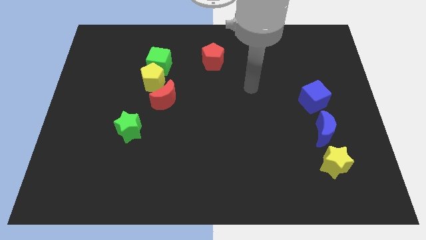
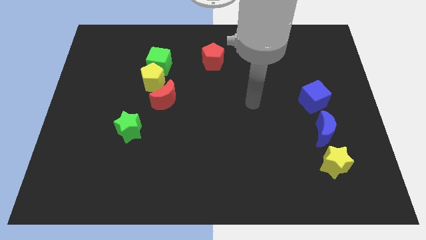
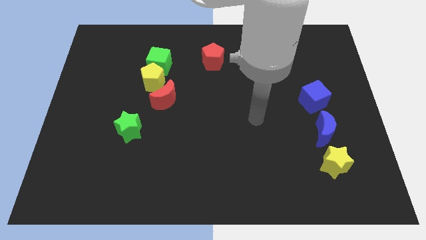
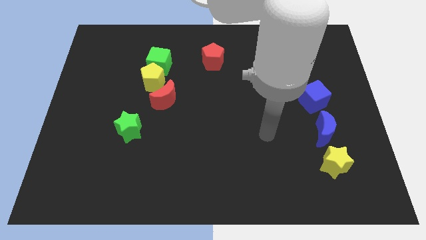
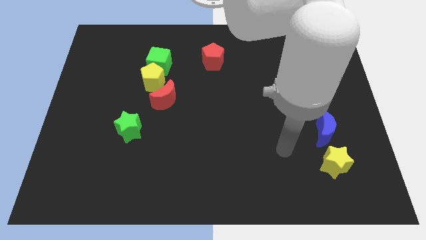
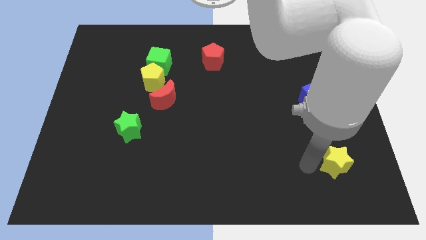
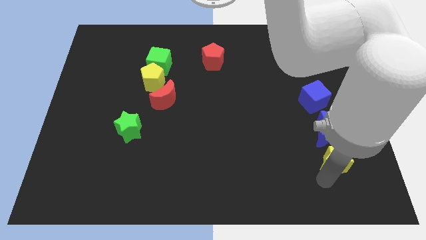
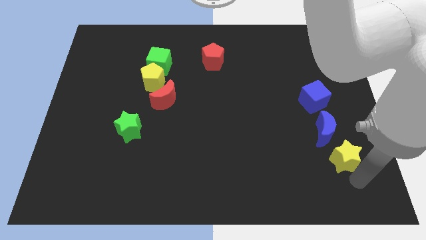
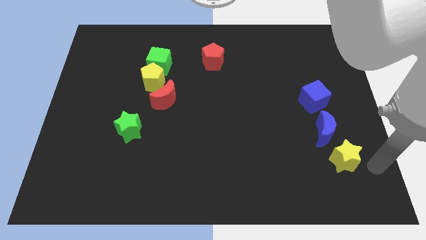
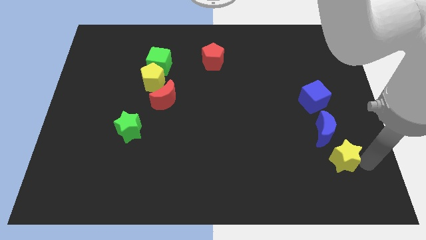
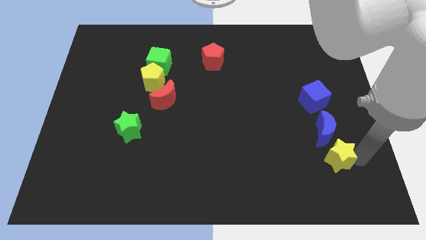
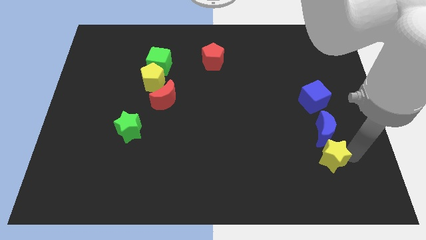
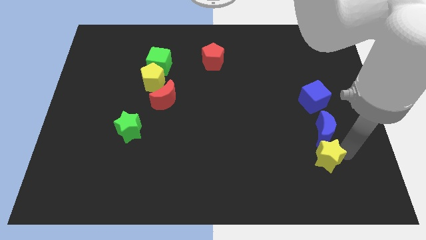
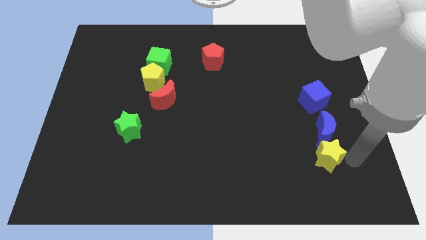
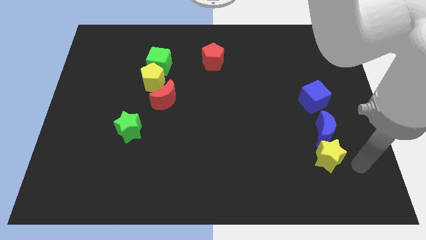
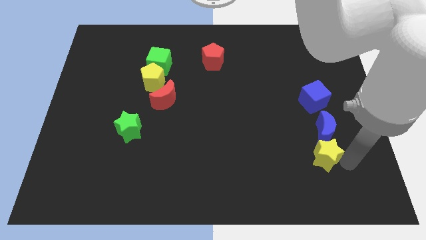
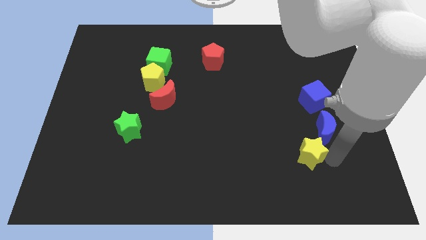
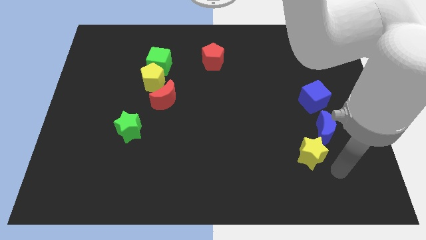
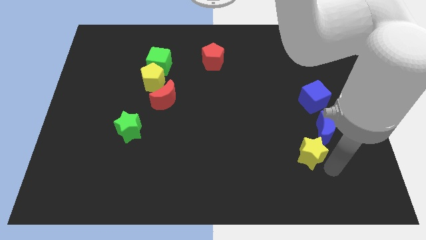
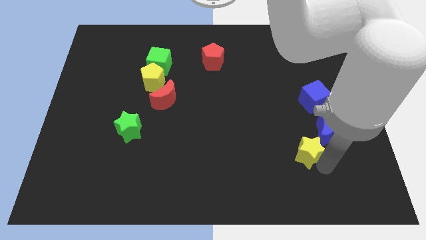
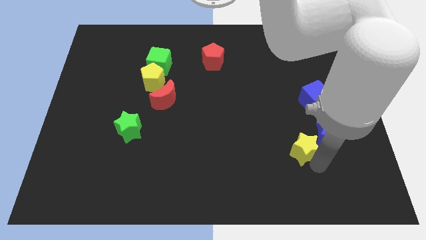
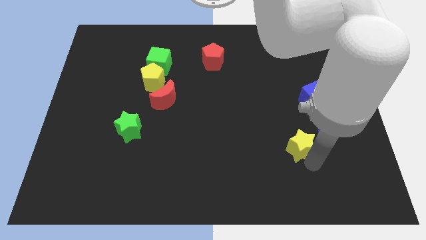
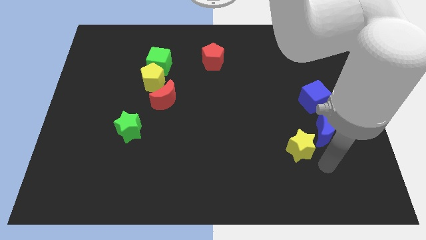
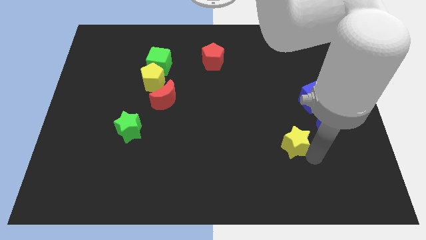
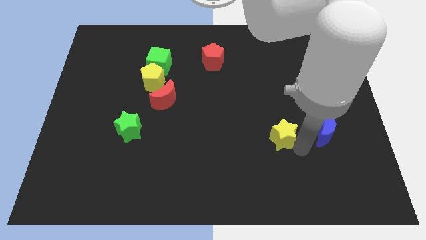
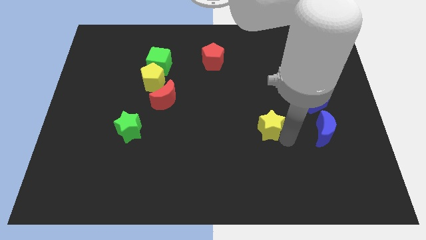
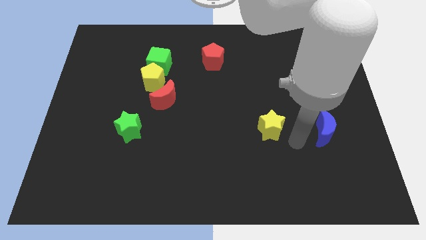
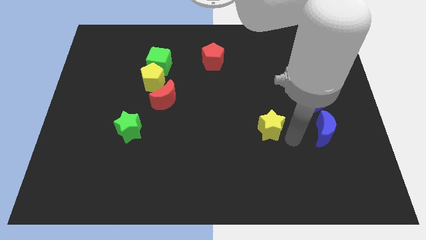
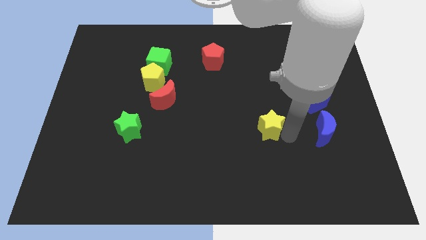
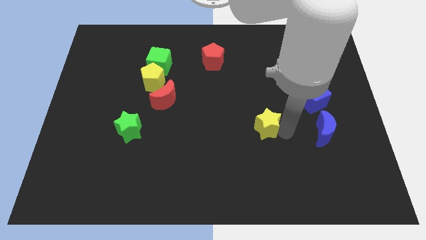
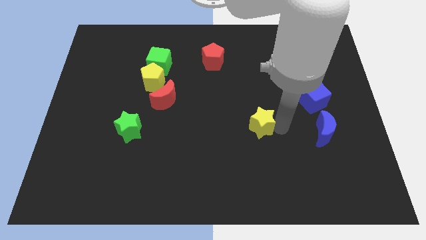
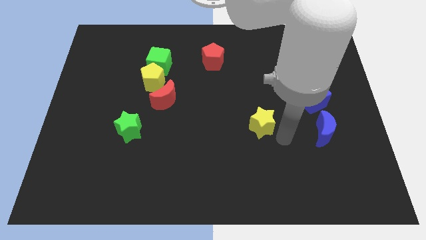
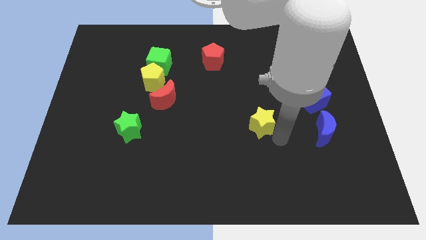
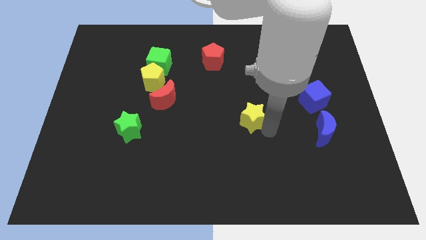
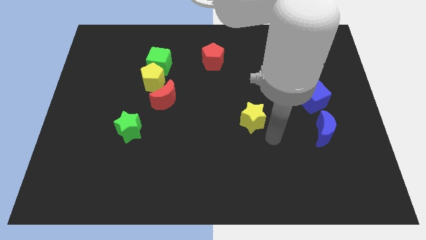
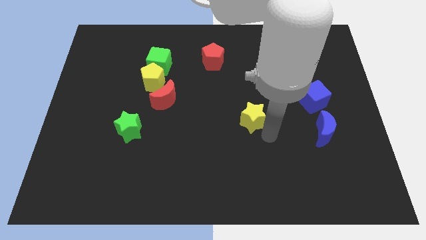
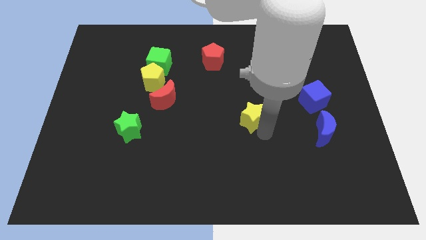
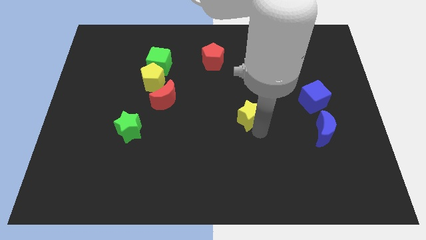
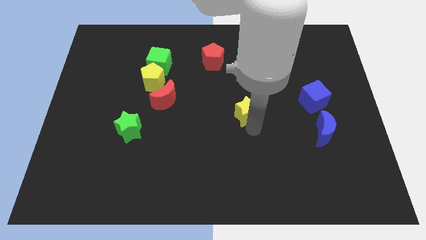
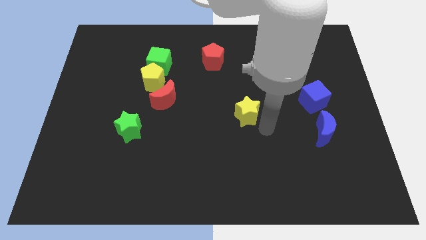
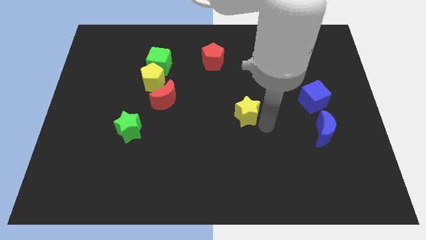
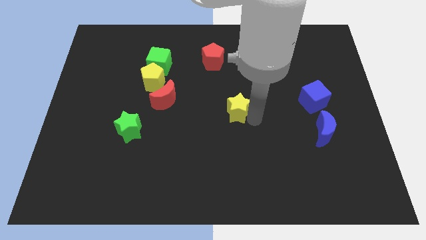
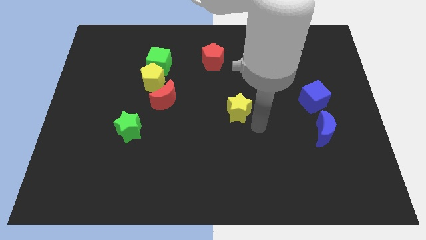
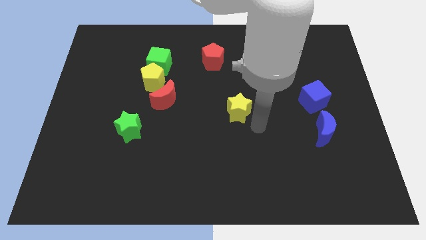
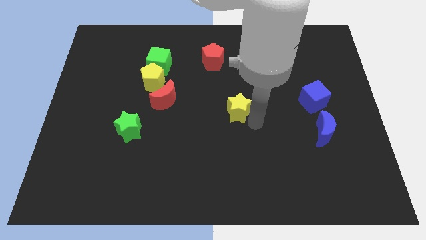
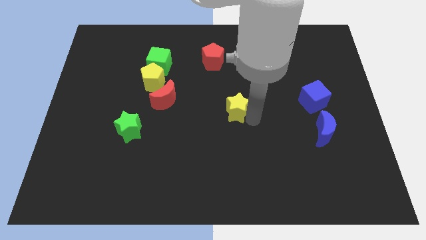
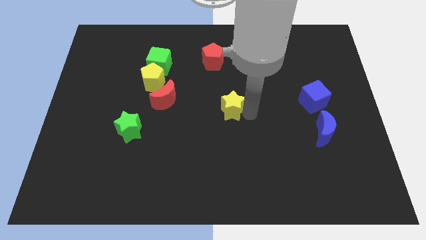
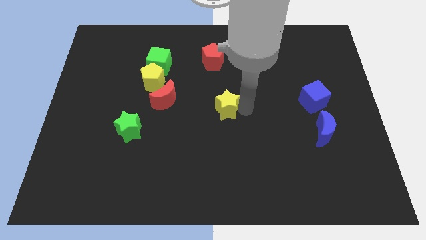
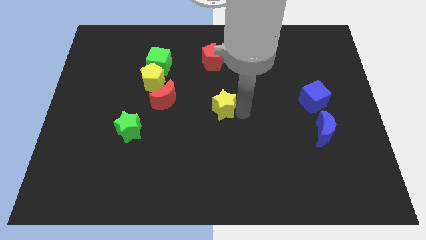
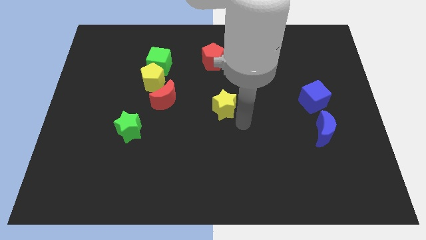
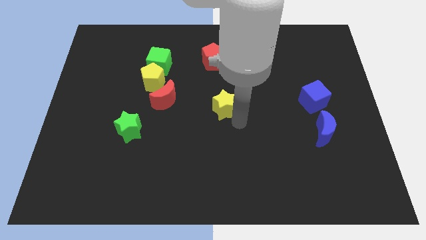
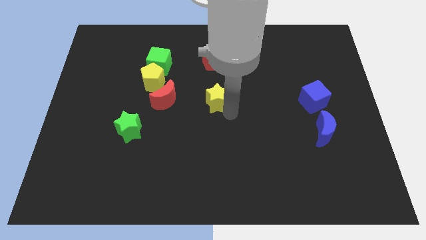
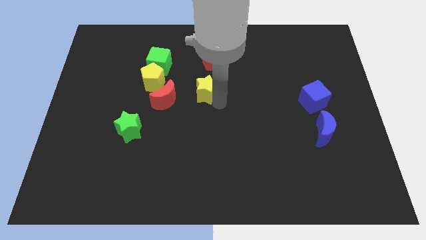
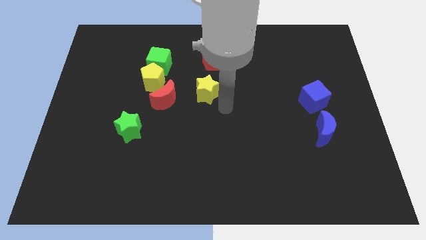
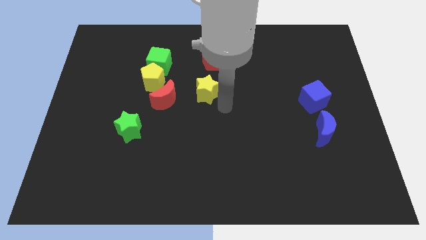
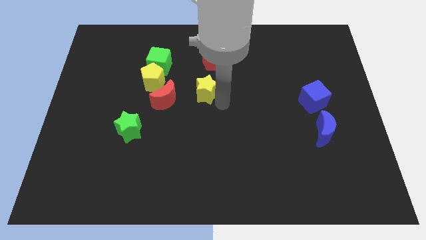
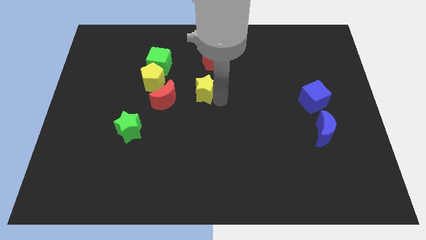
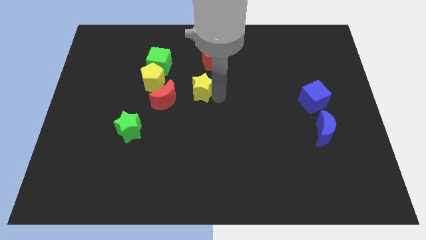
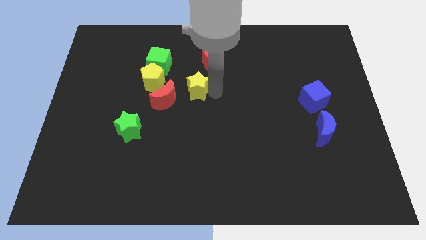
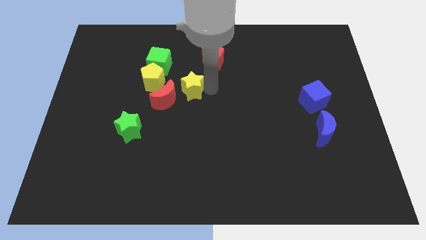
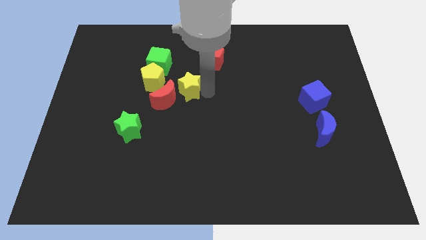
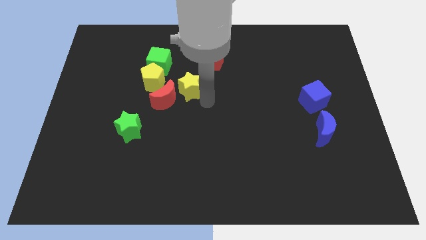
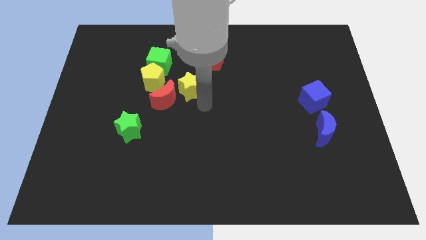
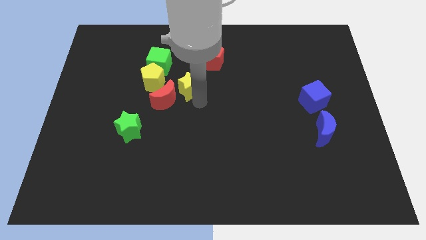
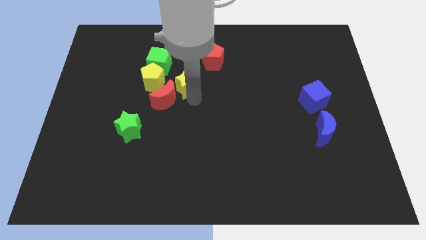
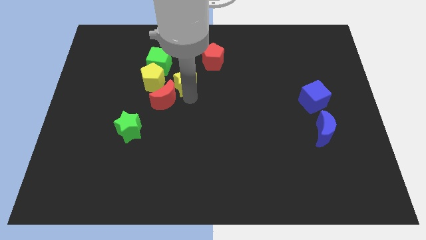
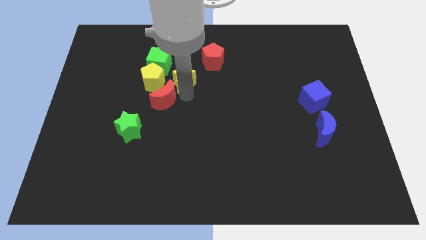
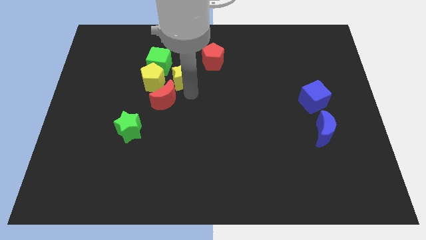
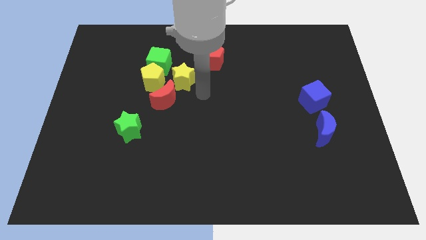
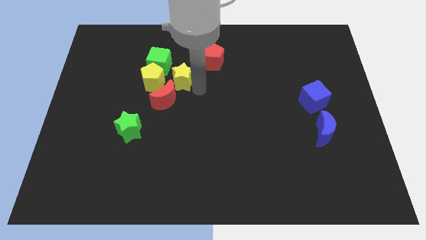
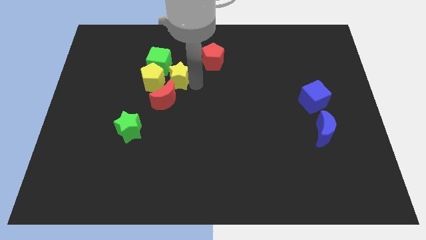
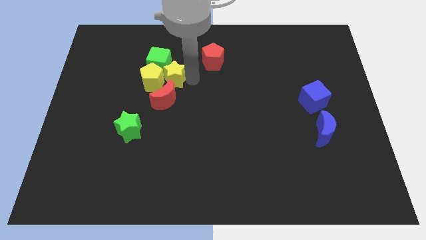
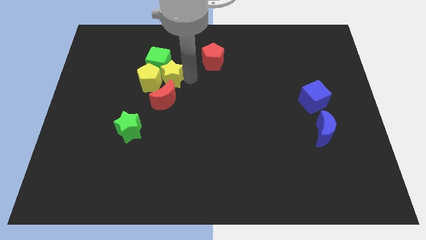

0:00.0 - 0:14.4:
push the yellow star next to the green cube
